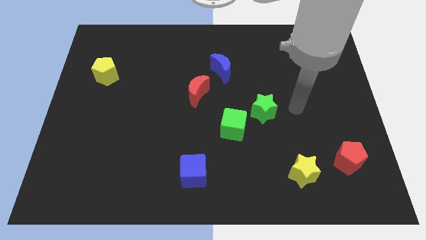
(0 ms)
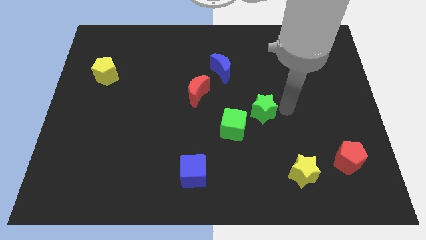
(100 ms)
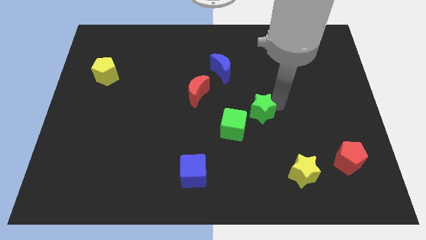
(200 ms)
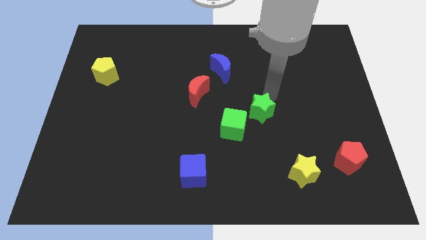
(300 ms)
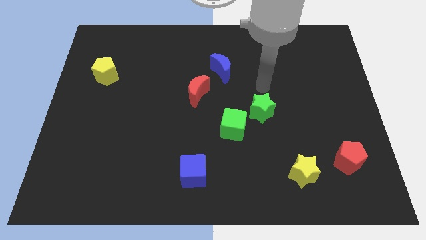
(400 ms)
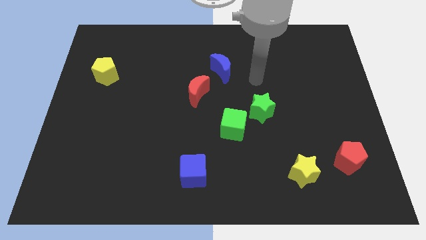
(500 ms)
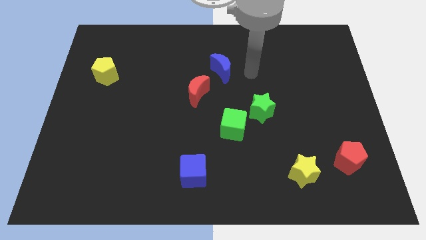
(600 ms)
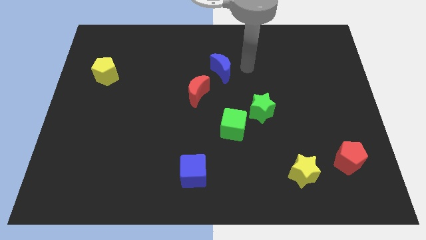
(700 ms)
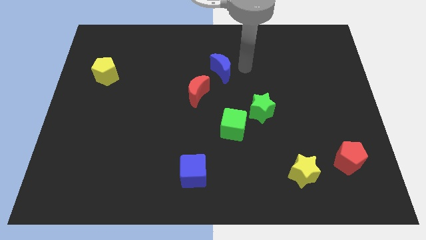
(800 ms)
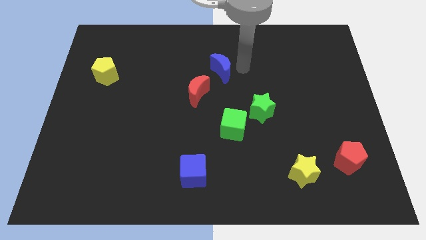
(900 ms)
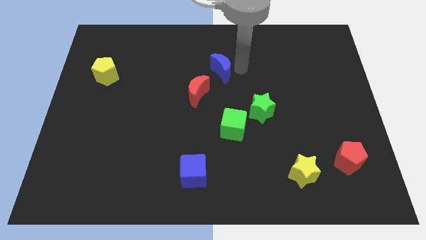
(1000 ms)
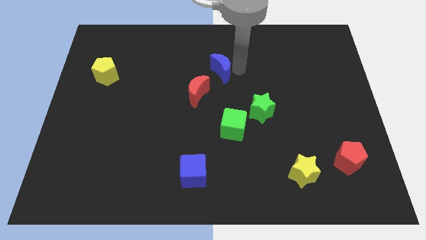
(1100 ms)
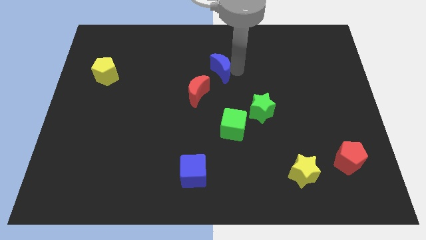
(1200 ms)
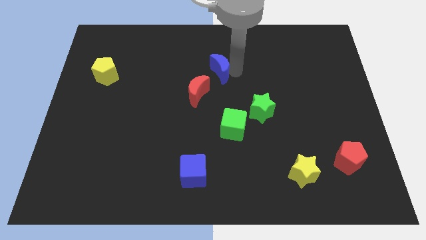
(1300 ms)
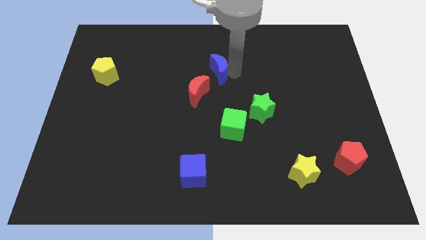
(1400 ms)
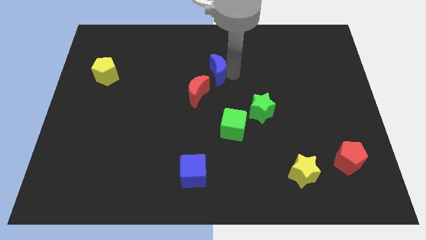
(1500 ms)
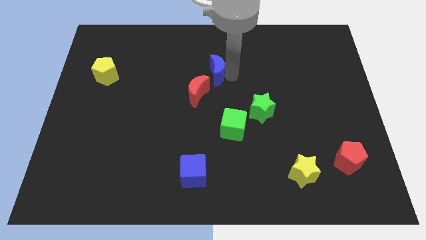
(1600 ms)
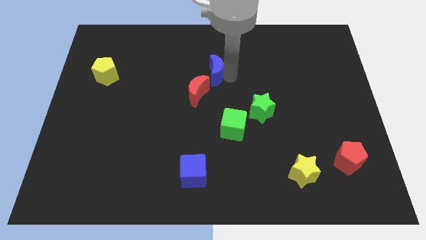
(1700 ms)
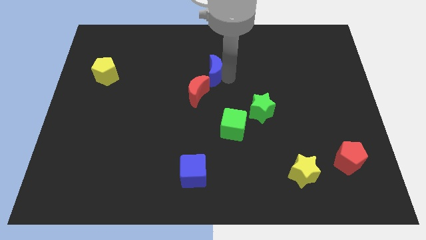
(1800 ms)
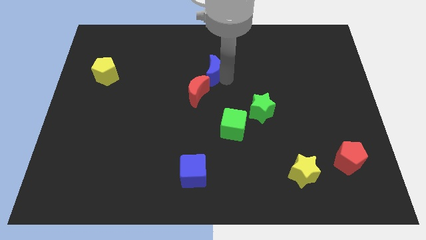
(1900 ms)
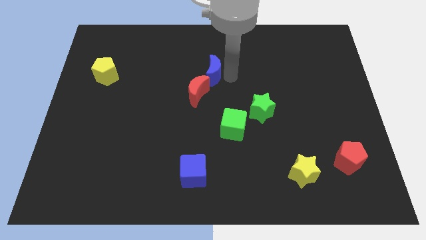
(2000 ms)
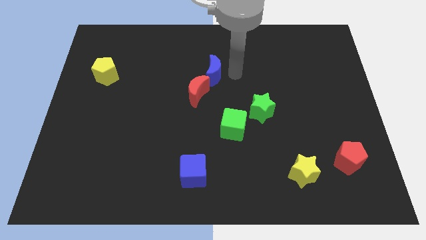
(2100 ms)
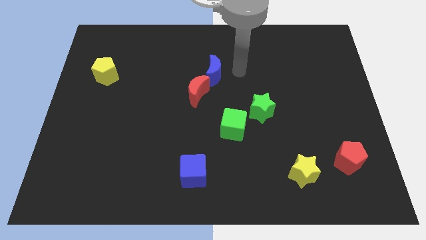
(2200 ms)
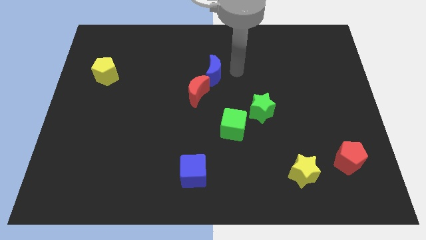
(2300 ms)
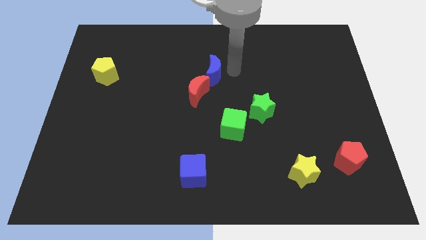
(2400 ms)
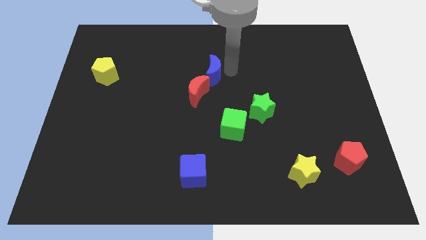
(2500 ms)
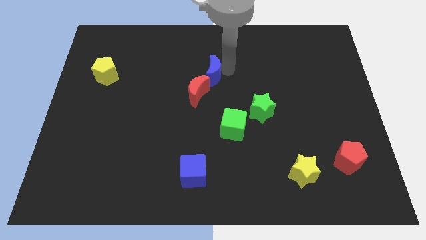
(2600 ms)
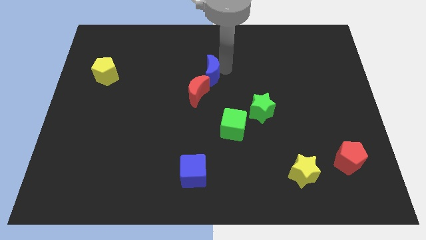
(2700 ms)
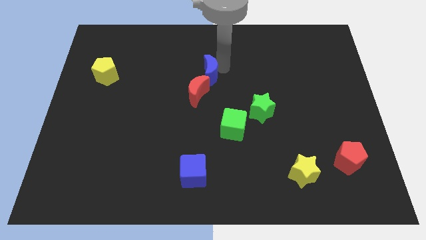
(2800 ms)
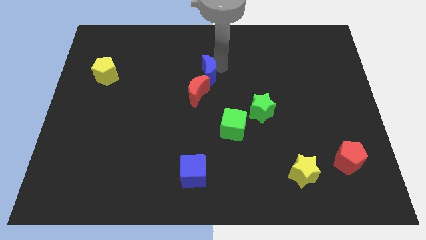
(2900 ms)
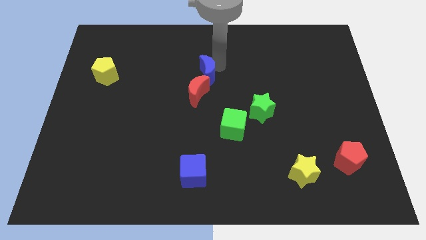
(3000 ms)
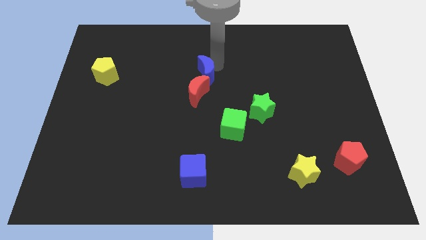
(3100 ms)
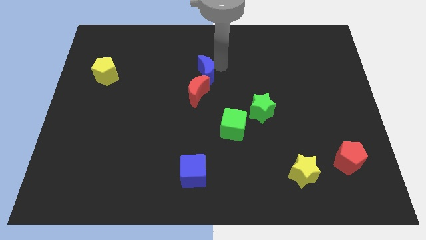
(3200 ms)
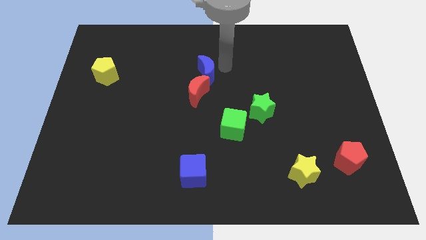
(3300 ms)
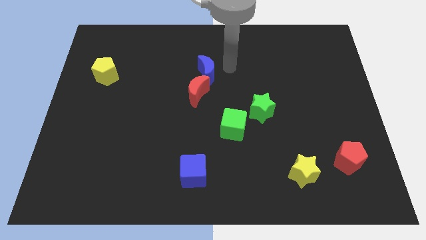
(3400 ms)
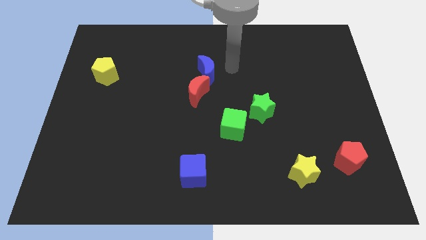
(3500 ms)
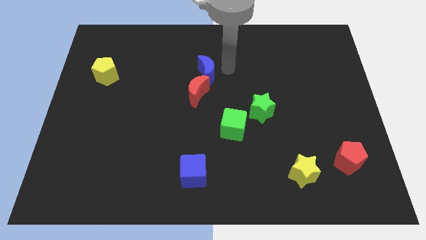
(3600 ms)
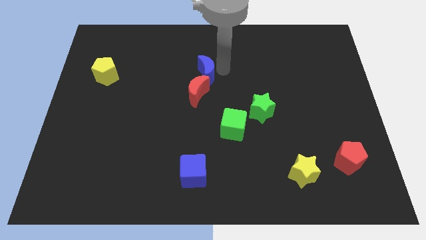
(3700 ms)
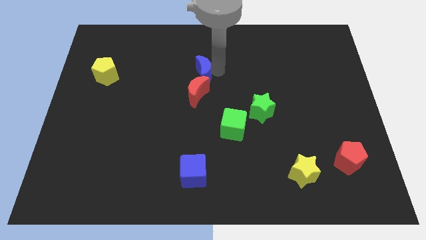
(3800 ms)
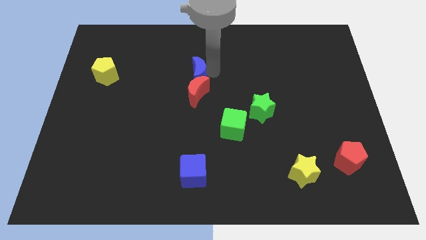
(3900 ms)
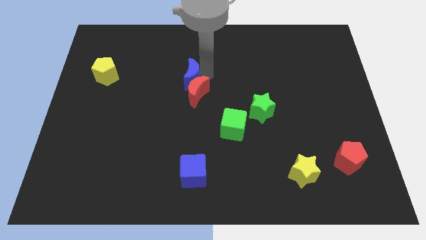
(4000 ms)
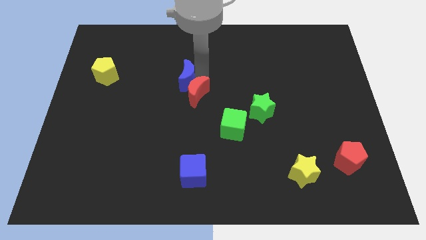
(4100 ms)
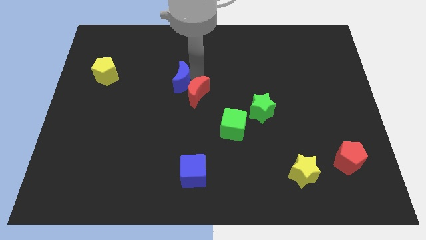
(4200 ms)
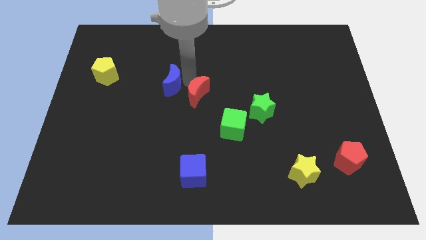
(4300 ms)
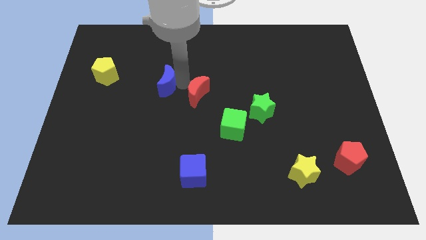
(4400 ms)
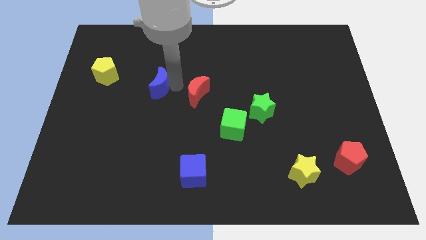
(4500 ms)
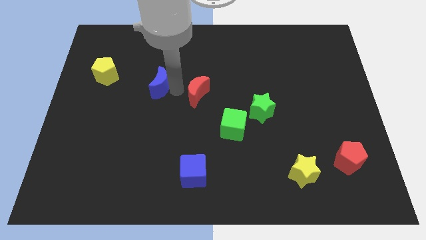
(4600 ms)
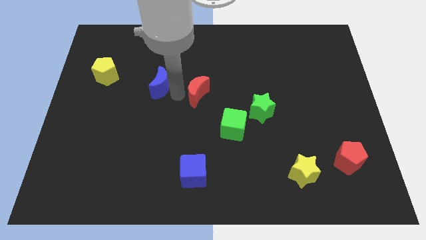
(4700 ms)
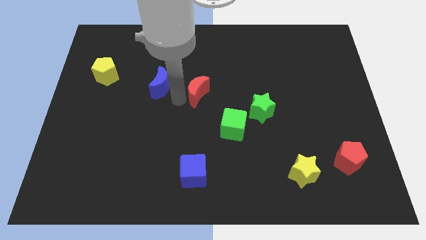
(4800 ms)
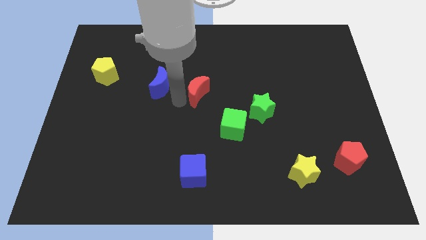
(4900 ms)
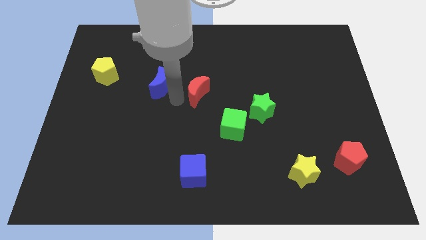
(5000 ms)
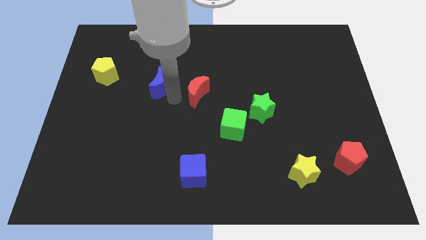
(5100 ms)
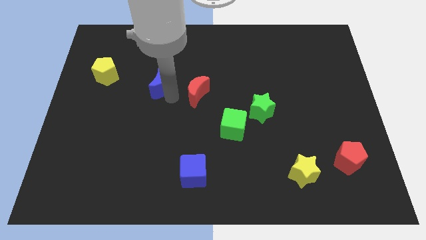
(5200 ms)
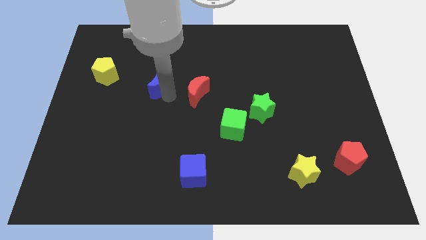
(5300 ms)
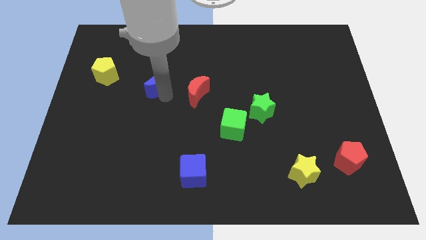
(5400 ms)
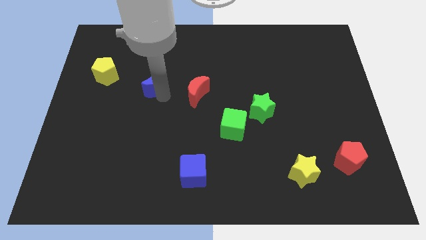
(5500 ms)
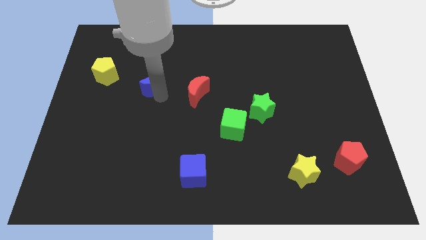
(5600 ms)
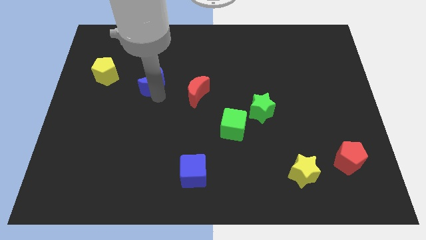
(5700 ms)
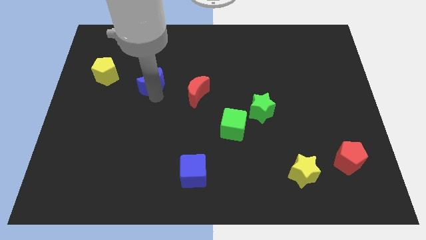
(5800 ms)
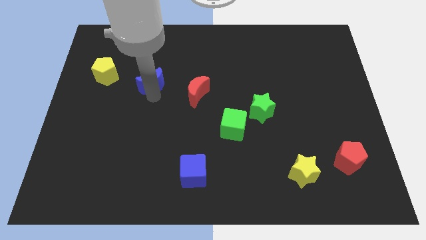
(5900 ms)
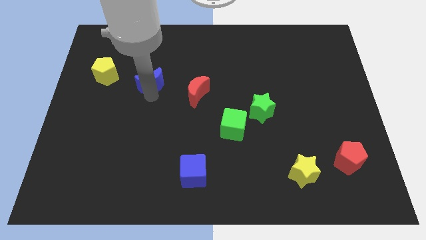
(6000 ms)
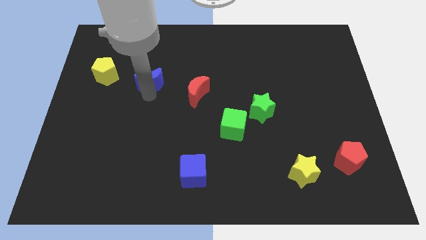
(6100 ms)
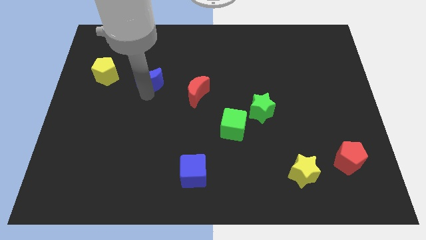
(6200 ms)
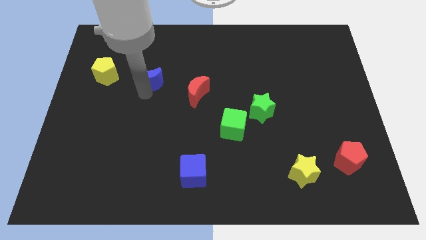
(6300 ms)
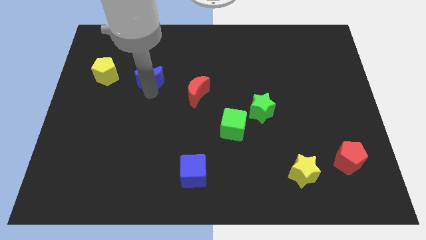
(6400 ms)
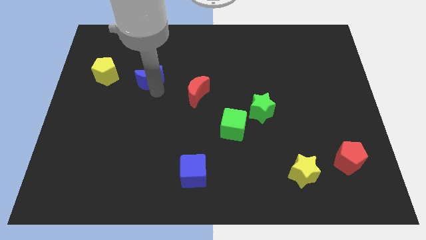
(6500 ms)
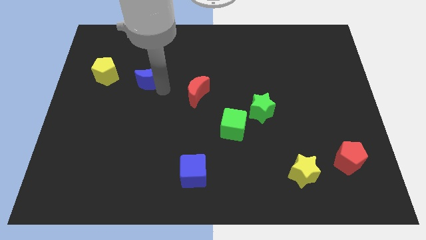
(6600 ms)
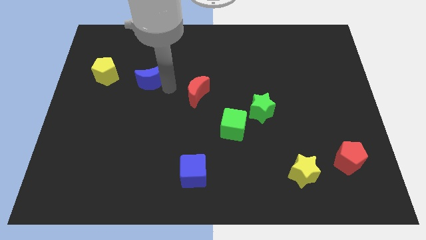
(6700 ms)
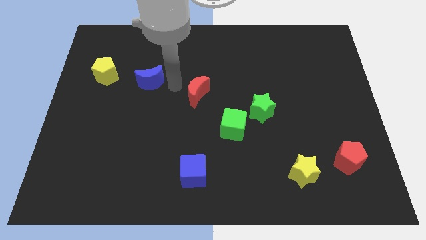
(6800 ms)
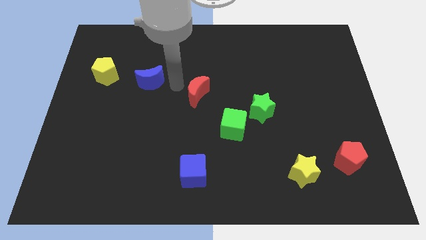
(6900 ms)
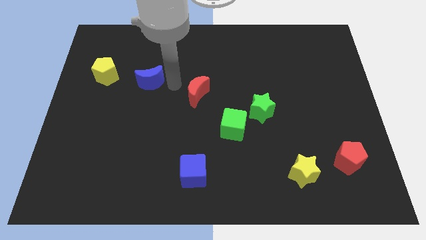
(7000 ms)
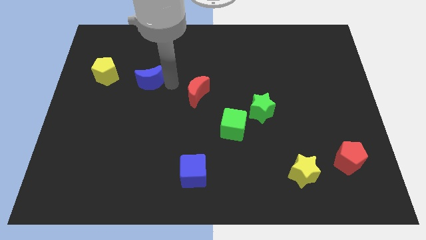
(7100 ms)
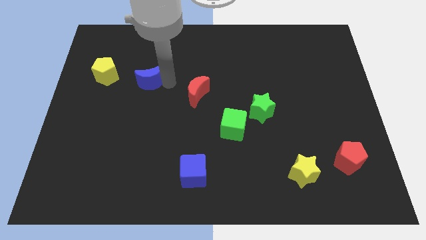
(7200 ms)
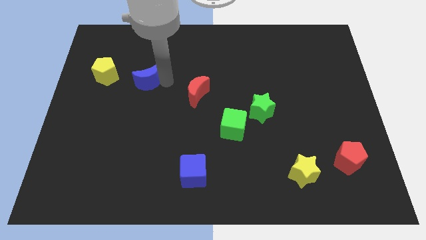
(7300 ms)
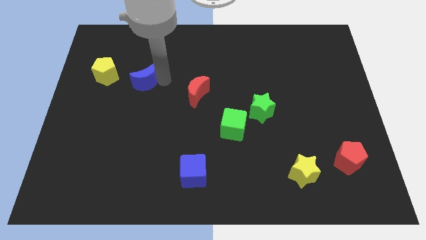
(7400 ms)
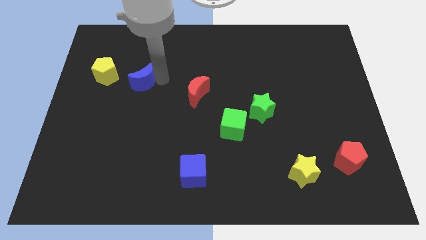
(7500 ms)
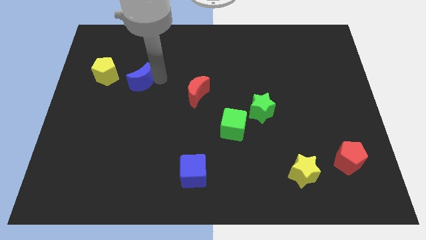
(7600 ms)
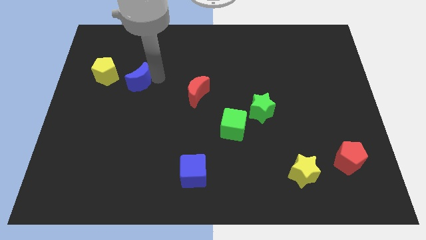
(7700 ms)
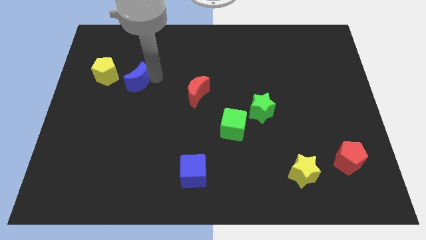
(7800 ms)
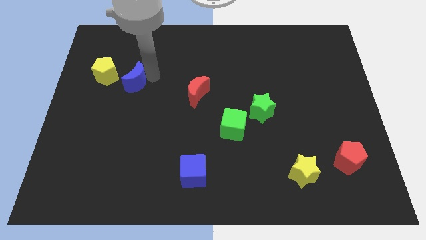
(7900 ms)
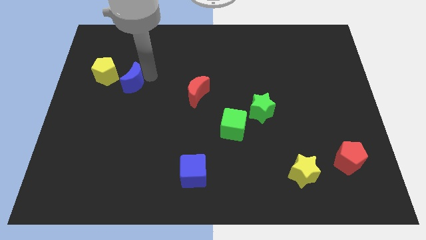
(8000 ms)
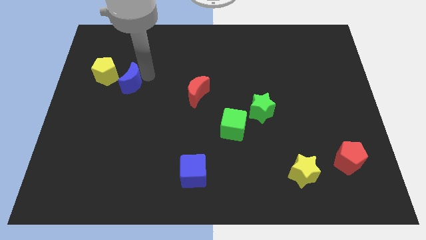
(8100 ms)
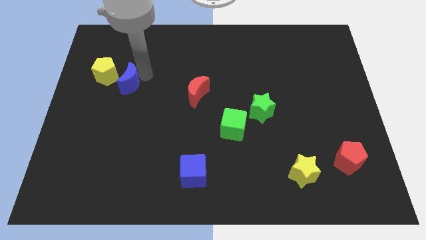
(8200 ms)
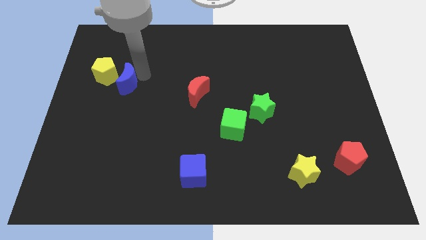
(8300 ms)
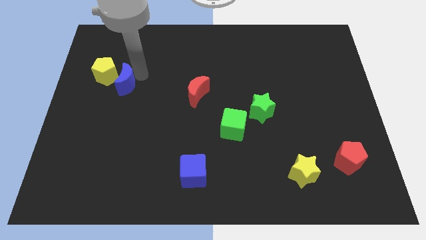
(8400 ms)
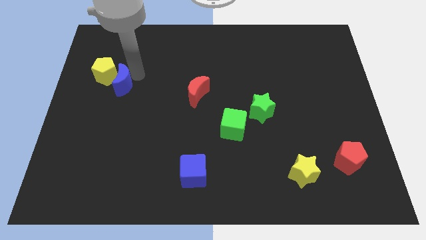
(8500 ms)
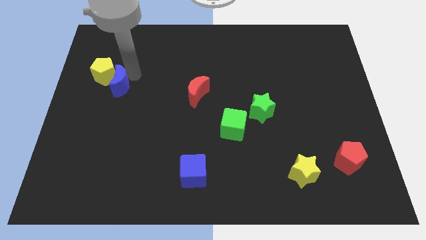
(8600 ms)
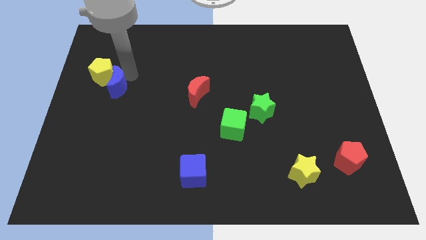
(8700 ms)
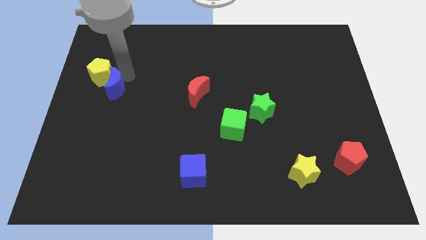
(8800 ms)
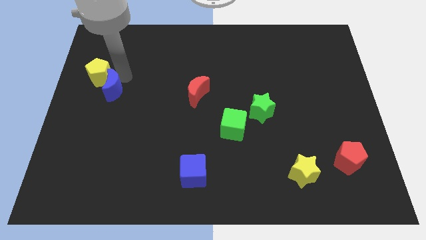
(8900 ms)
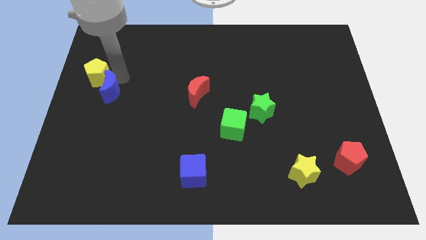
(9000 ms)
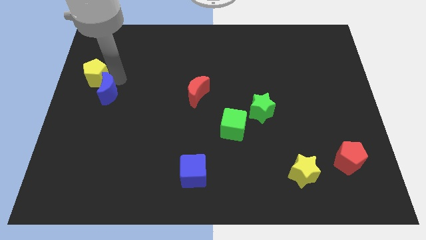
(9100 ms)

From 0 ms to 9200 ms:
slide the blue moon to the left side of the board
